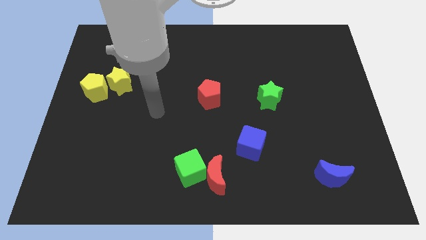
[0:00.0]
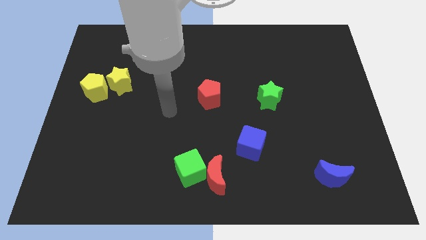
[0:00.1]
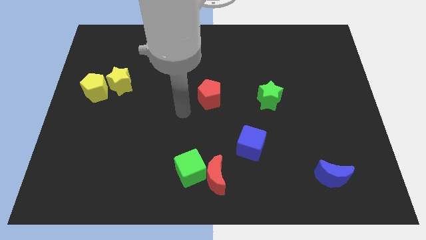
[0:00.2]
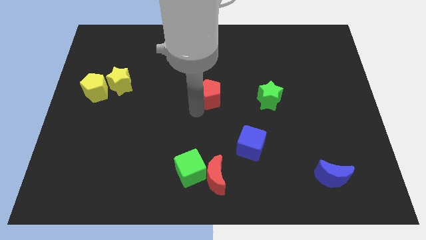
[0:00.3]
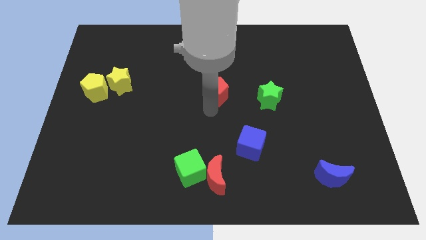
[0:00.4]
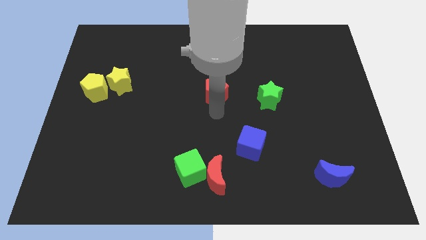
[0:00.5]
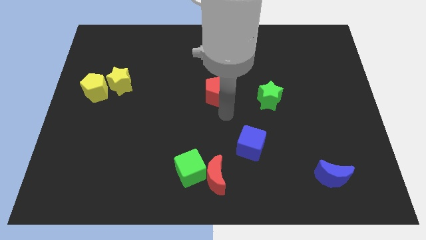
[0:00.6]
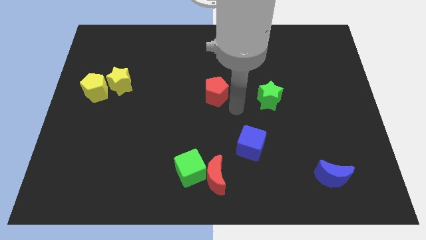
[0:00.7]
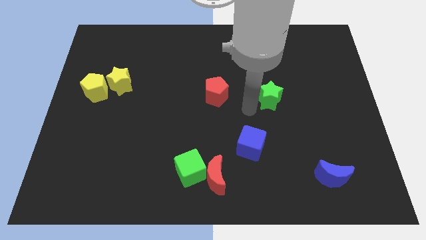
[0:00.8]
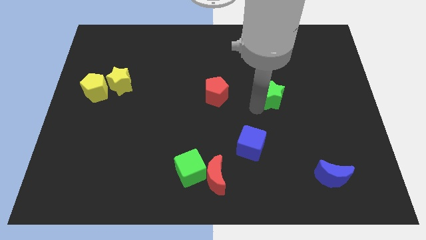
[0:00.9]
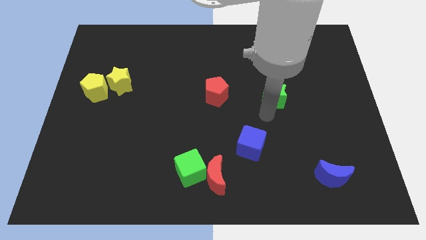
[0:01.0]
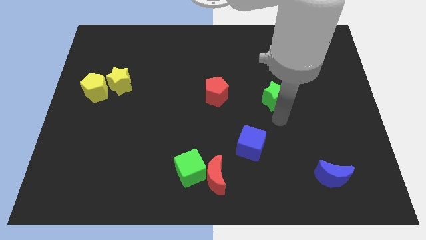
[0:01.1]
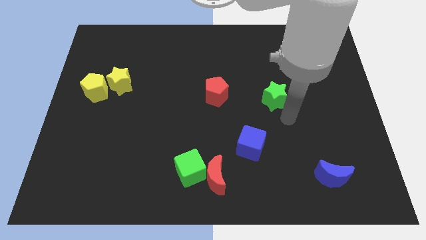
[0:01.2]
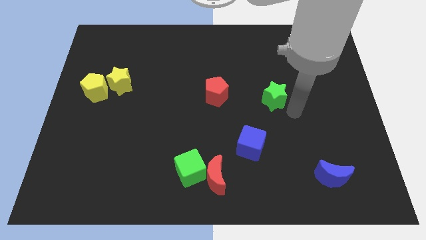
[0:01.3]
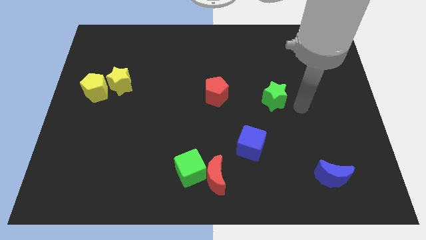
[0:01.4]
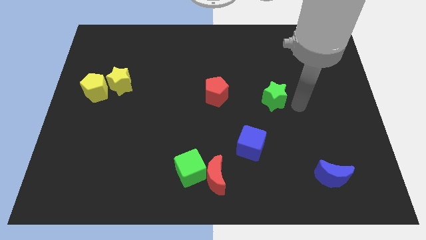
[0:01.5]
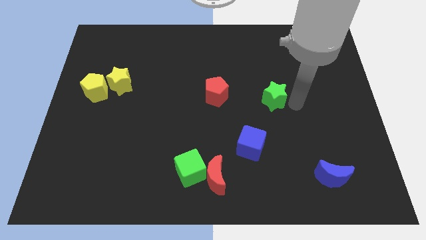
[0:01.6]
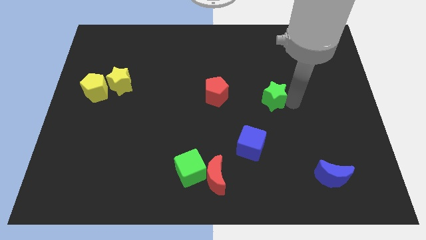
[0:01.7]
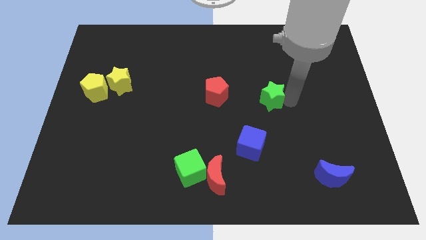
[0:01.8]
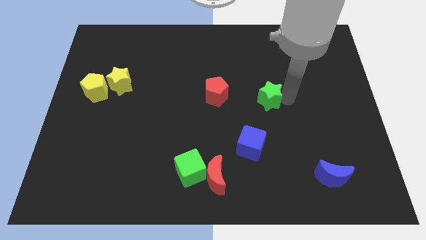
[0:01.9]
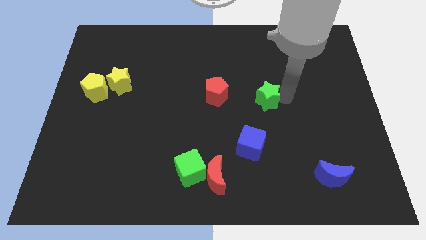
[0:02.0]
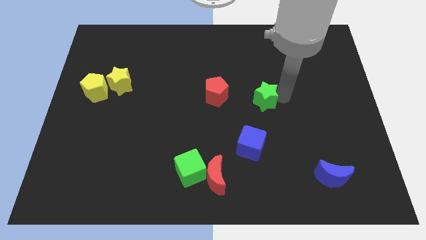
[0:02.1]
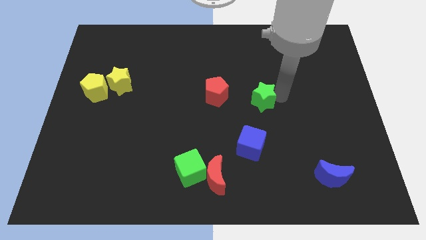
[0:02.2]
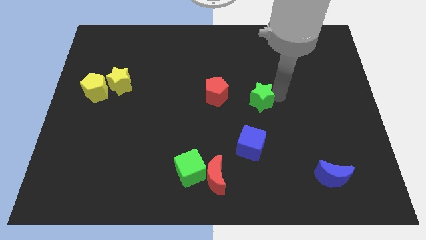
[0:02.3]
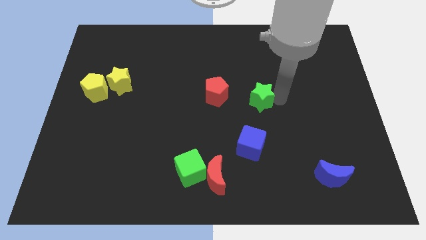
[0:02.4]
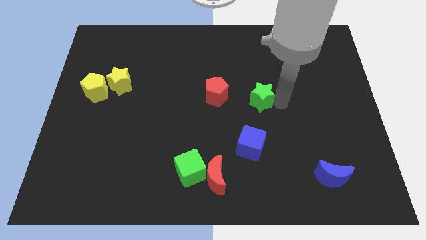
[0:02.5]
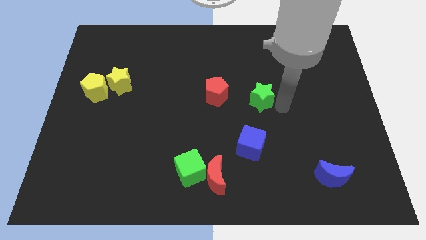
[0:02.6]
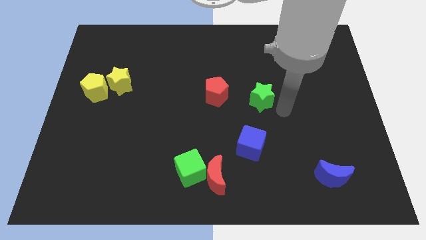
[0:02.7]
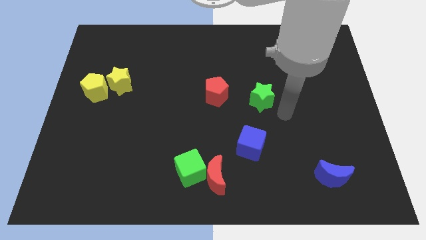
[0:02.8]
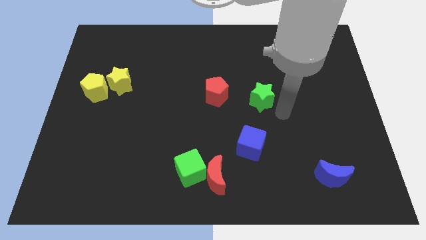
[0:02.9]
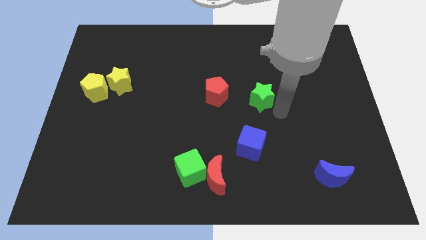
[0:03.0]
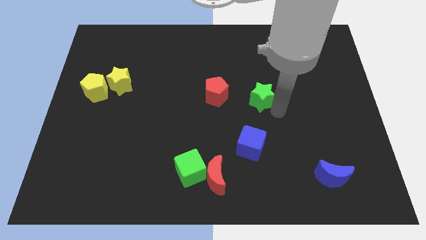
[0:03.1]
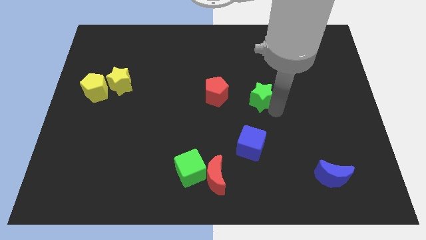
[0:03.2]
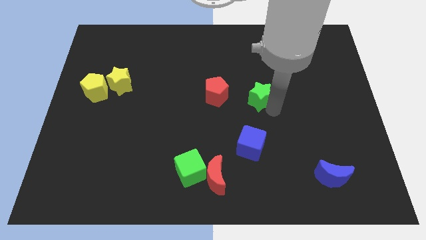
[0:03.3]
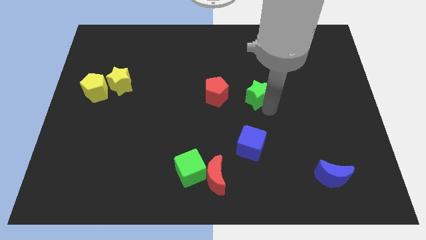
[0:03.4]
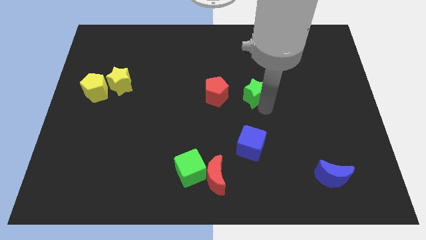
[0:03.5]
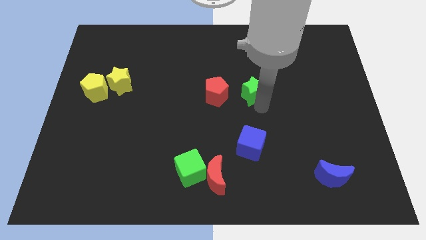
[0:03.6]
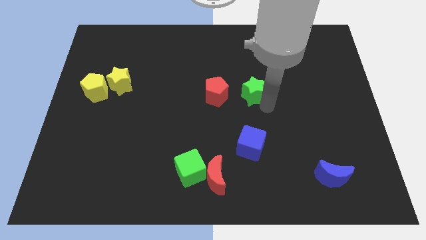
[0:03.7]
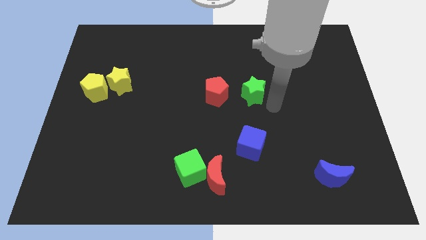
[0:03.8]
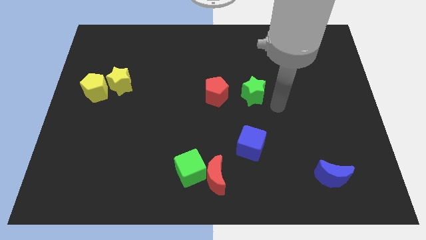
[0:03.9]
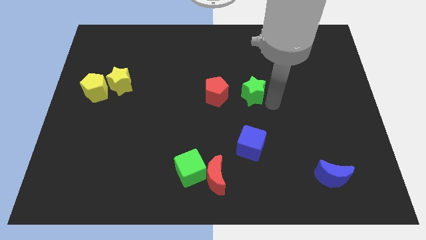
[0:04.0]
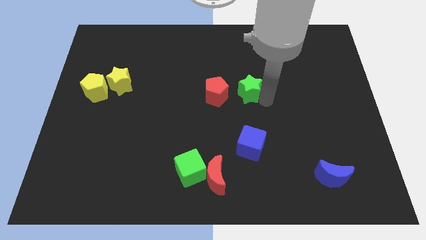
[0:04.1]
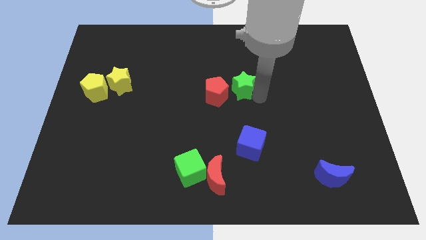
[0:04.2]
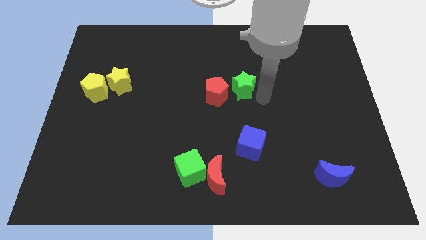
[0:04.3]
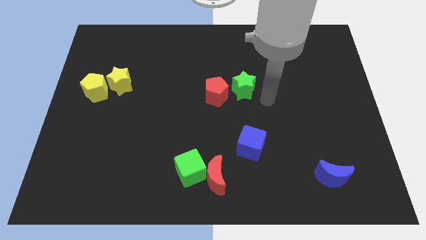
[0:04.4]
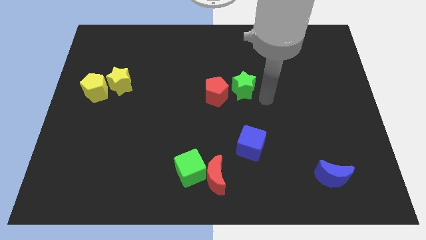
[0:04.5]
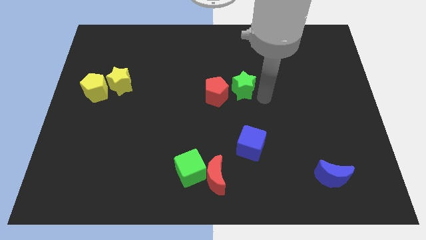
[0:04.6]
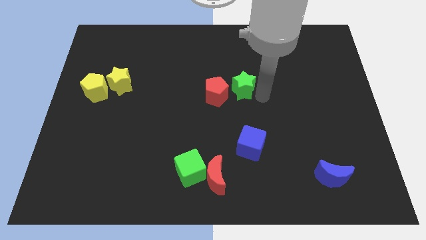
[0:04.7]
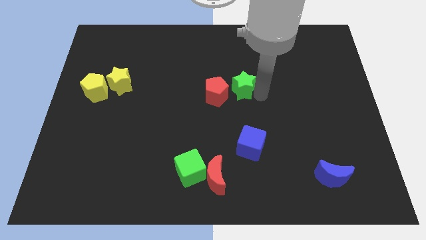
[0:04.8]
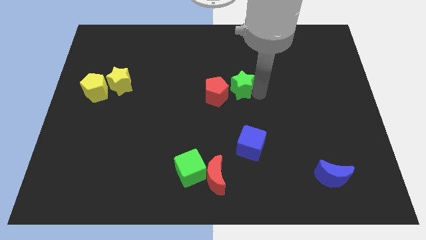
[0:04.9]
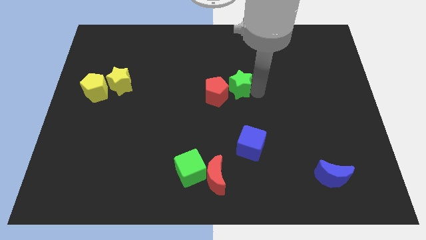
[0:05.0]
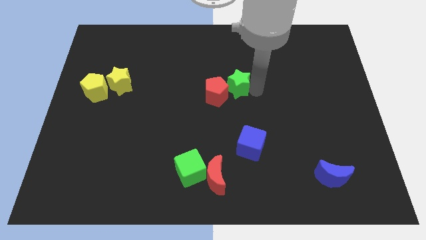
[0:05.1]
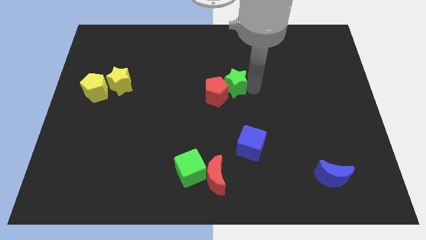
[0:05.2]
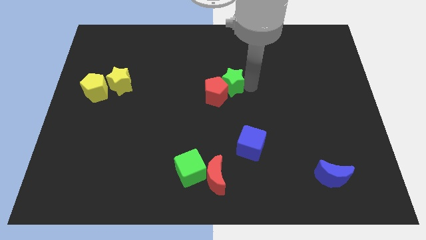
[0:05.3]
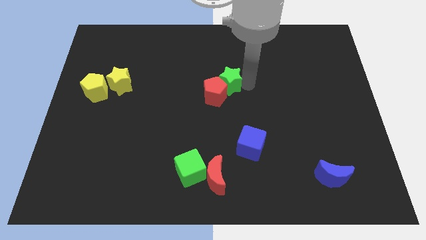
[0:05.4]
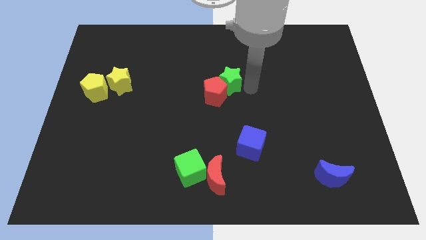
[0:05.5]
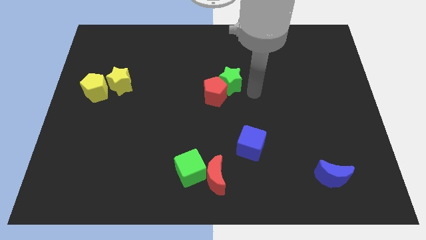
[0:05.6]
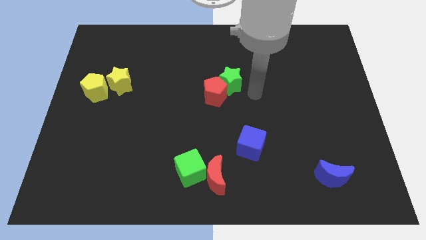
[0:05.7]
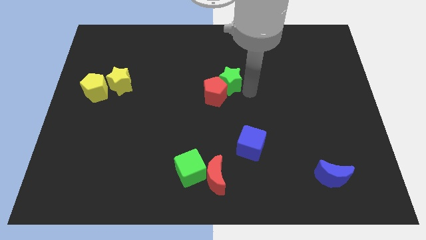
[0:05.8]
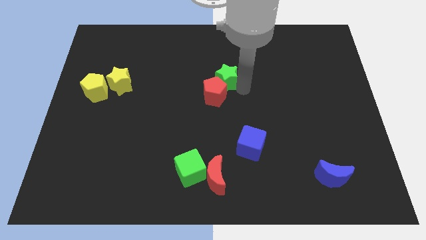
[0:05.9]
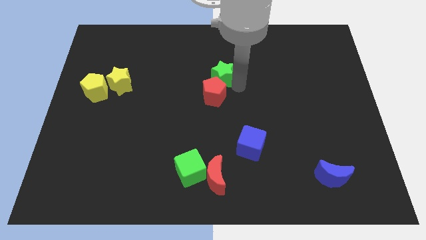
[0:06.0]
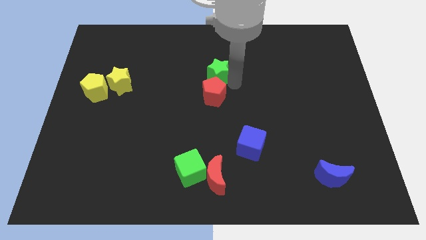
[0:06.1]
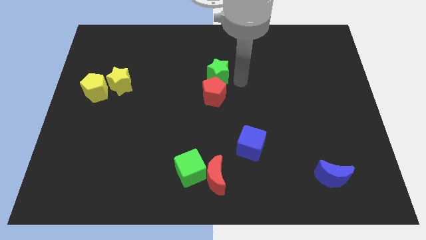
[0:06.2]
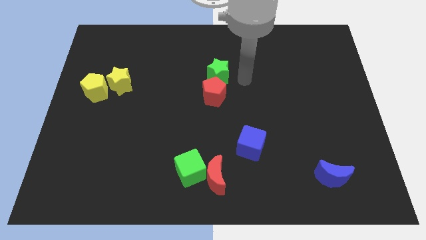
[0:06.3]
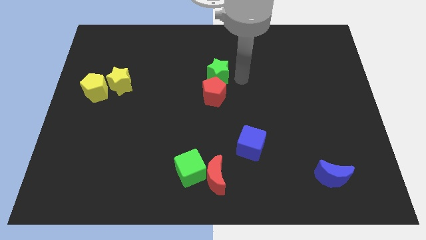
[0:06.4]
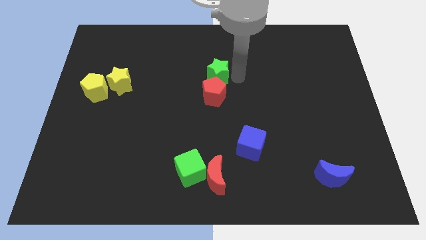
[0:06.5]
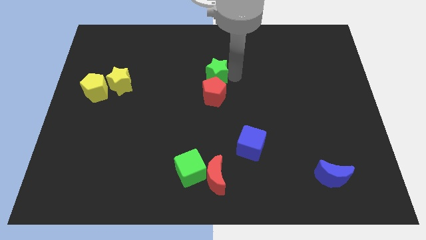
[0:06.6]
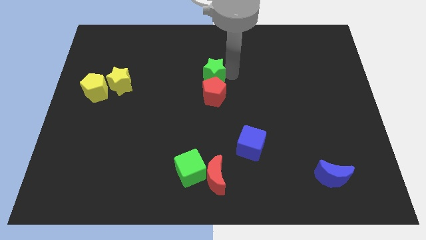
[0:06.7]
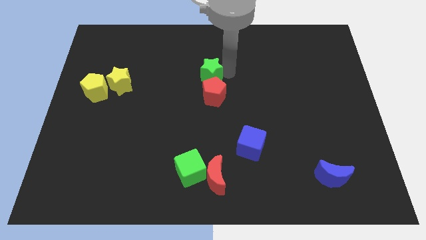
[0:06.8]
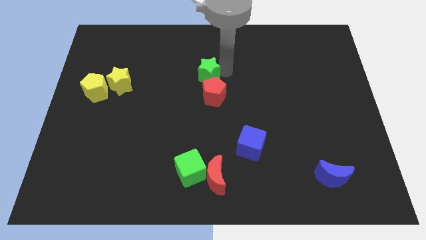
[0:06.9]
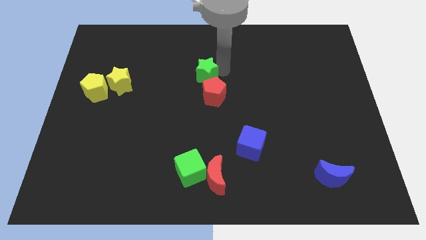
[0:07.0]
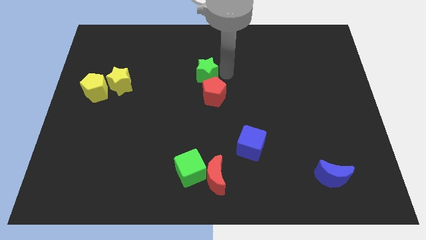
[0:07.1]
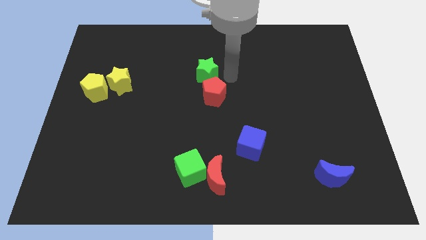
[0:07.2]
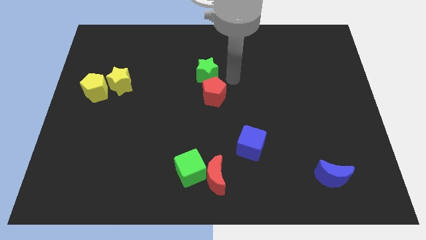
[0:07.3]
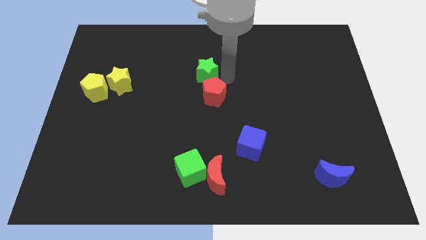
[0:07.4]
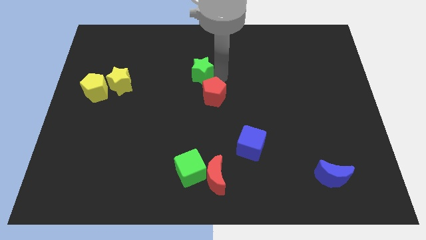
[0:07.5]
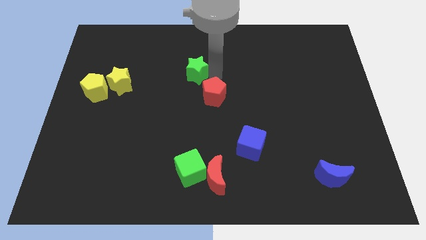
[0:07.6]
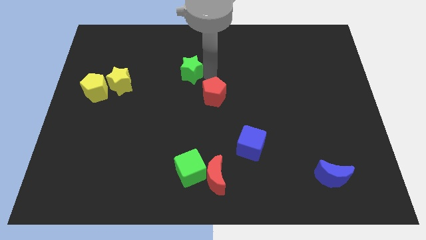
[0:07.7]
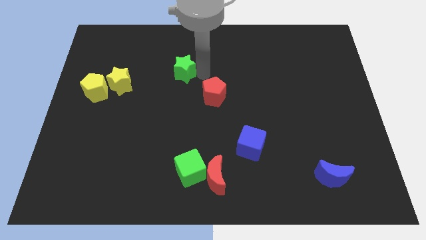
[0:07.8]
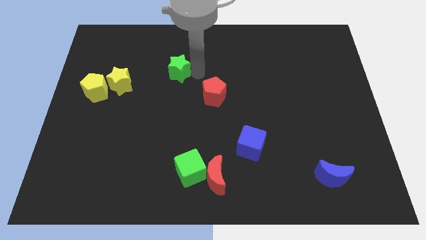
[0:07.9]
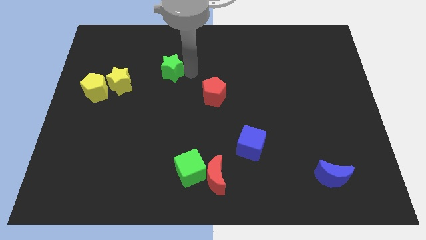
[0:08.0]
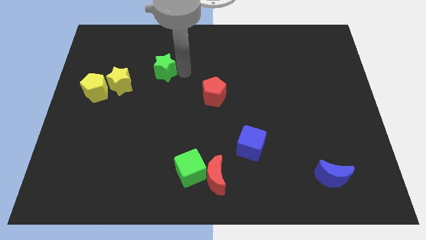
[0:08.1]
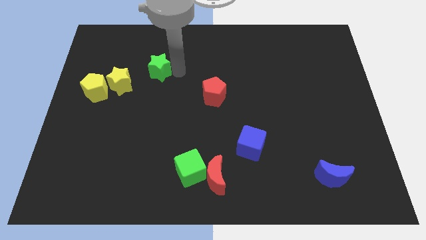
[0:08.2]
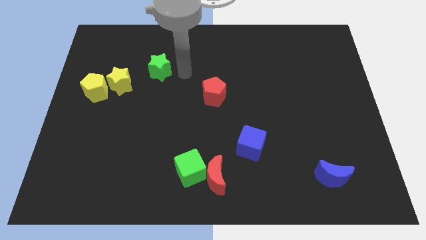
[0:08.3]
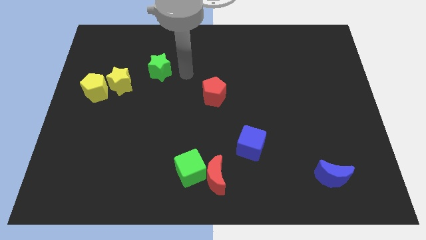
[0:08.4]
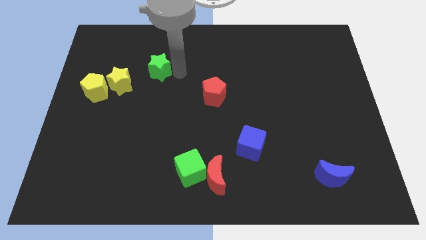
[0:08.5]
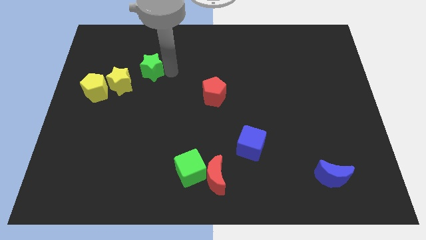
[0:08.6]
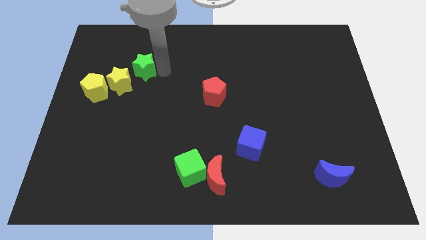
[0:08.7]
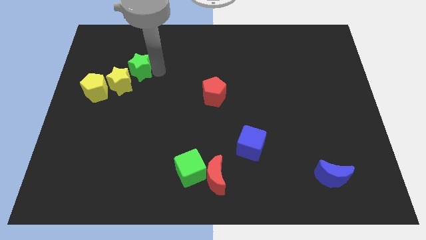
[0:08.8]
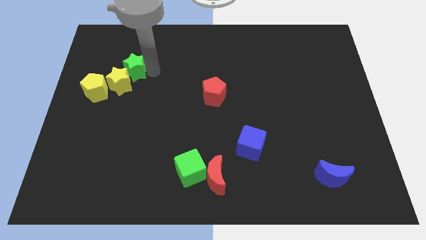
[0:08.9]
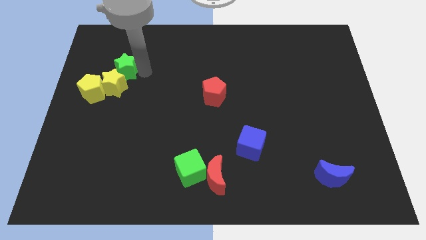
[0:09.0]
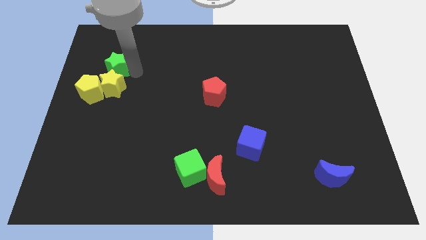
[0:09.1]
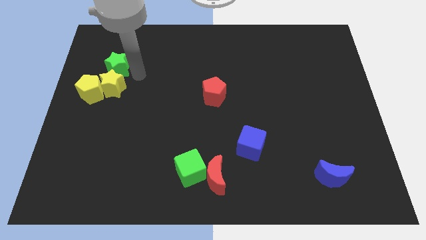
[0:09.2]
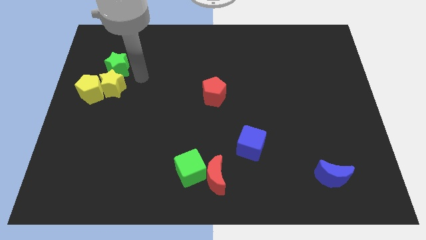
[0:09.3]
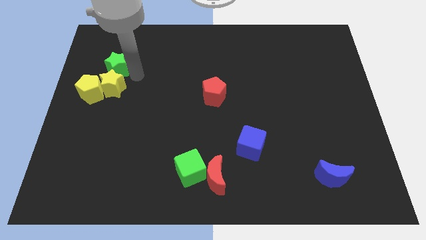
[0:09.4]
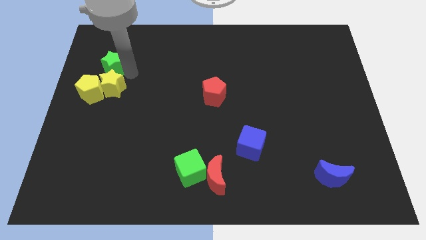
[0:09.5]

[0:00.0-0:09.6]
slide the green star to the top of the yellow pentagon
